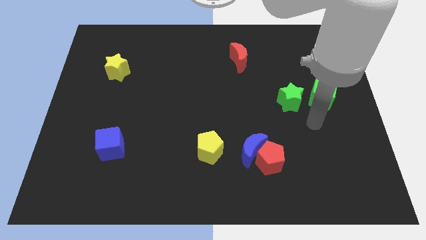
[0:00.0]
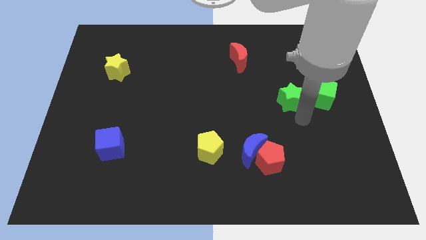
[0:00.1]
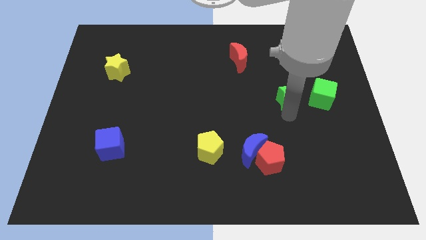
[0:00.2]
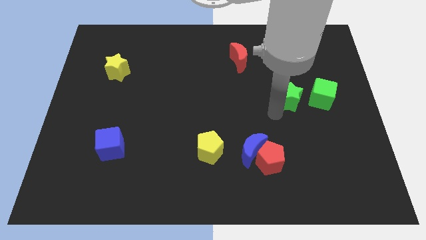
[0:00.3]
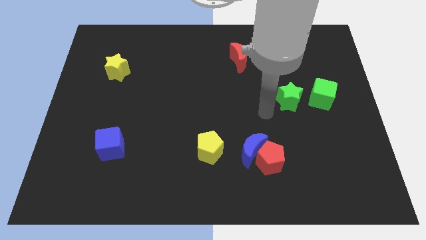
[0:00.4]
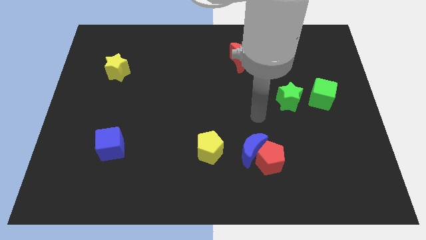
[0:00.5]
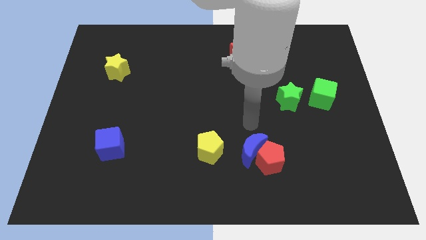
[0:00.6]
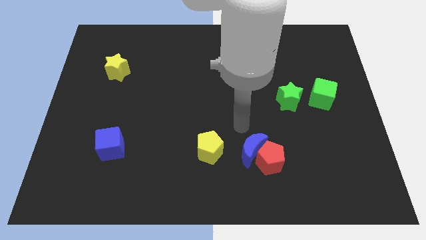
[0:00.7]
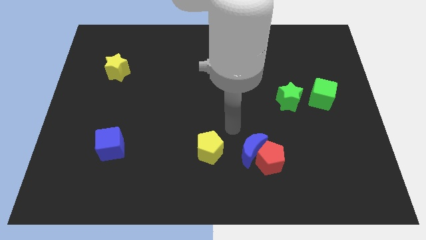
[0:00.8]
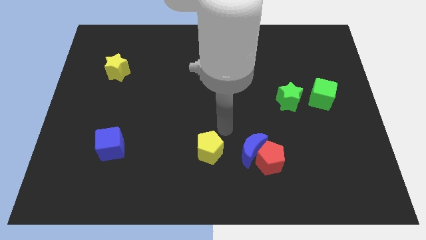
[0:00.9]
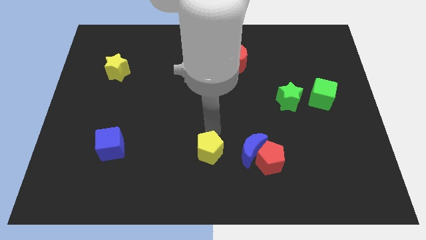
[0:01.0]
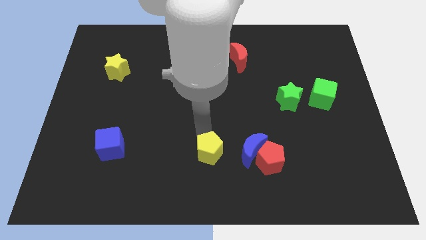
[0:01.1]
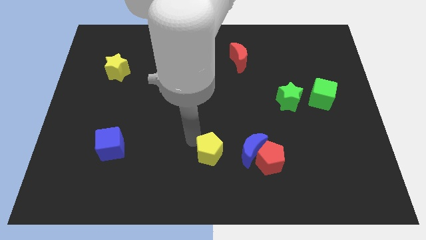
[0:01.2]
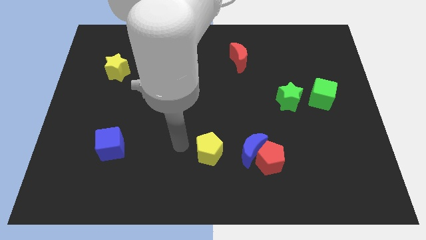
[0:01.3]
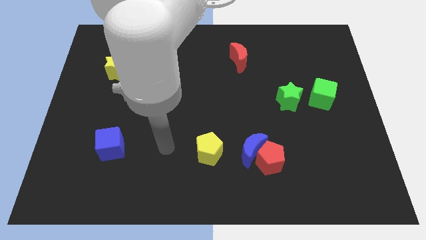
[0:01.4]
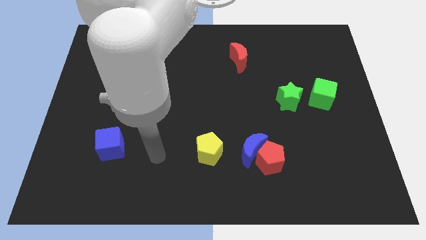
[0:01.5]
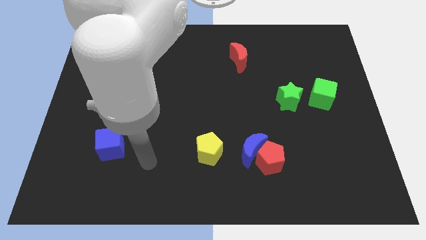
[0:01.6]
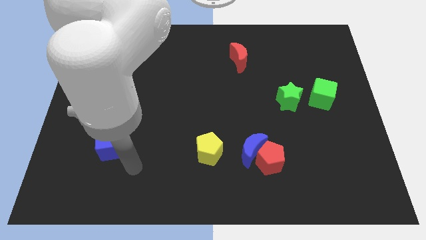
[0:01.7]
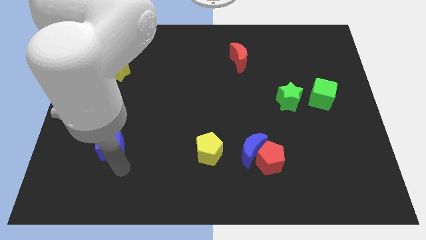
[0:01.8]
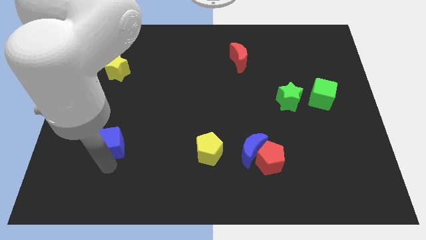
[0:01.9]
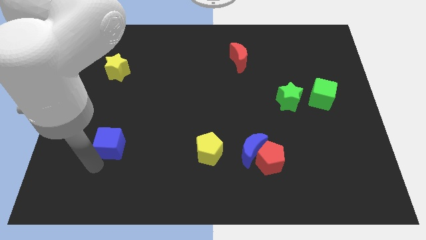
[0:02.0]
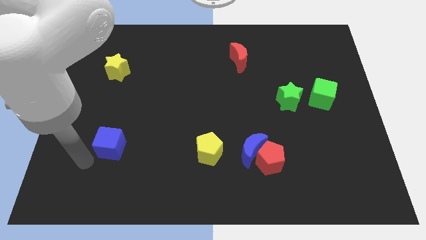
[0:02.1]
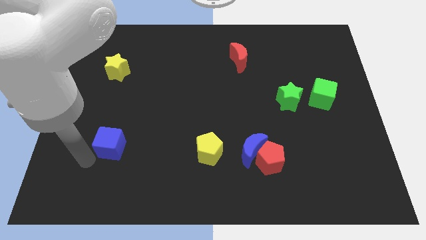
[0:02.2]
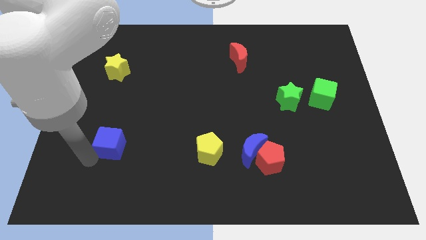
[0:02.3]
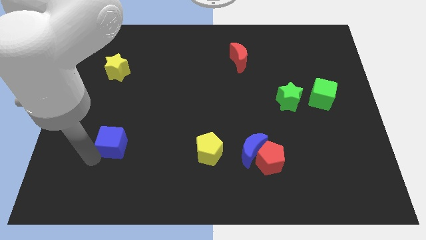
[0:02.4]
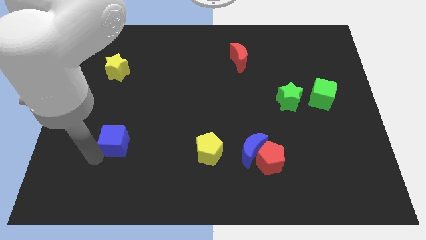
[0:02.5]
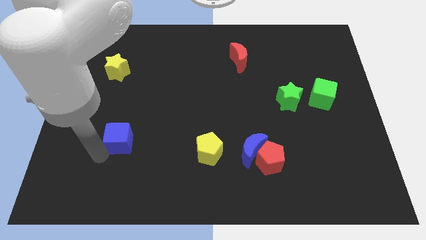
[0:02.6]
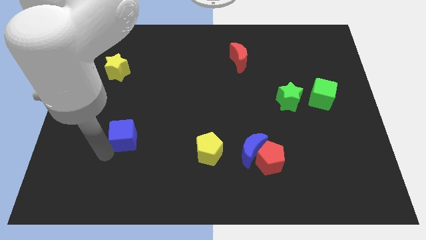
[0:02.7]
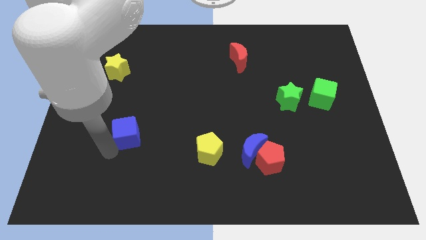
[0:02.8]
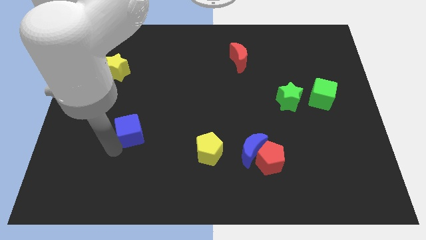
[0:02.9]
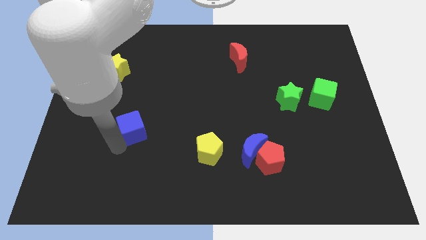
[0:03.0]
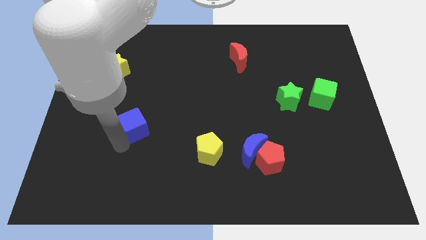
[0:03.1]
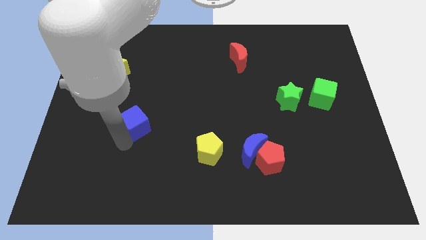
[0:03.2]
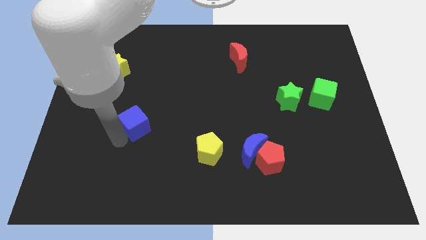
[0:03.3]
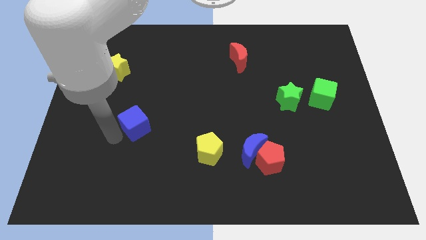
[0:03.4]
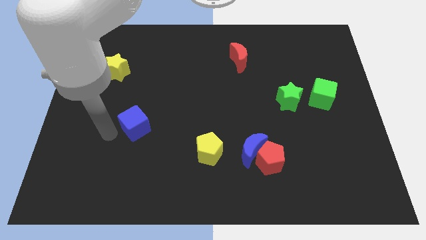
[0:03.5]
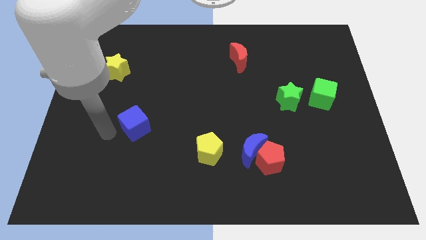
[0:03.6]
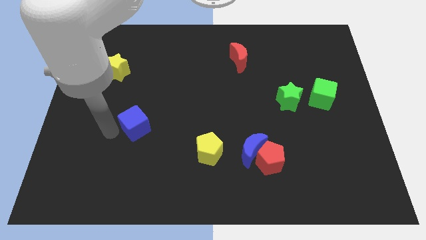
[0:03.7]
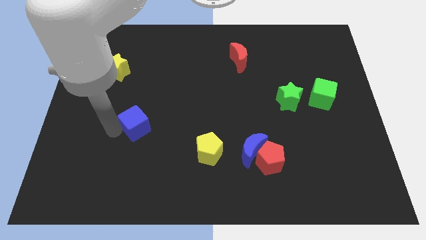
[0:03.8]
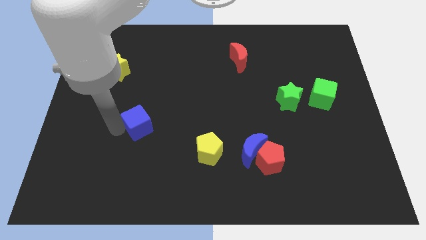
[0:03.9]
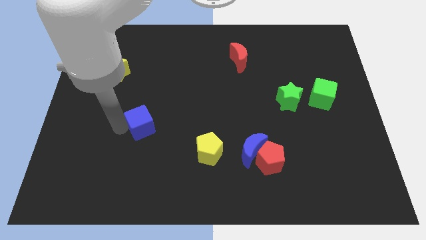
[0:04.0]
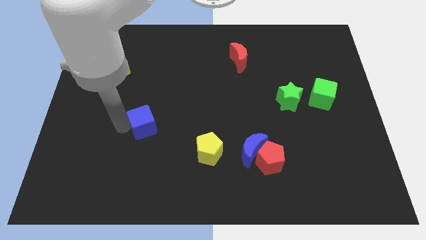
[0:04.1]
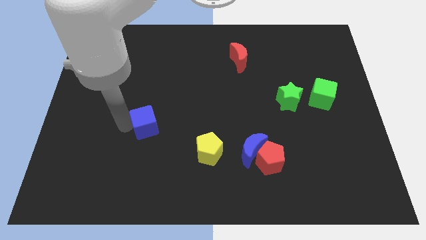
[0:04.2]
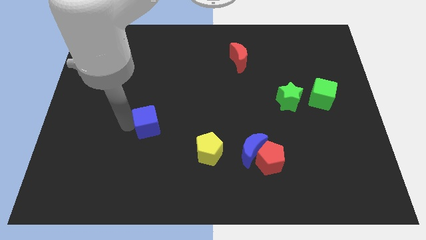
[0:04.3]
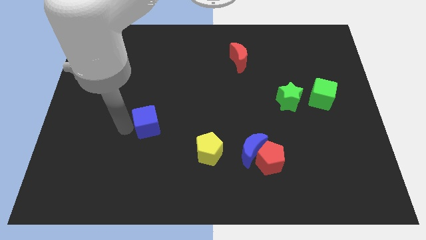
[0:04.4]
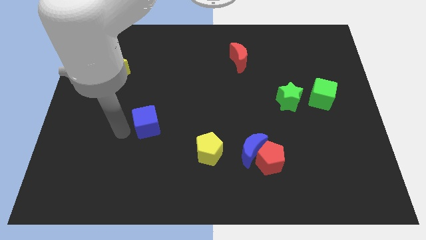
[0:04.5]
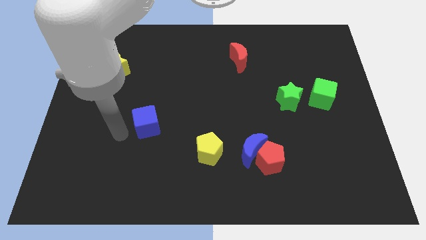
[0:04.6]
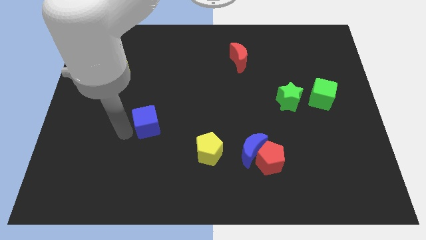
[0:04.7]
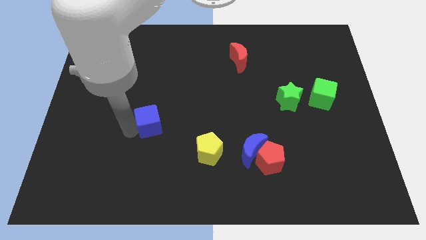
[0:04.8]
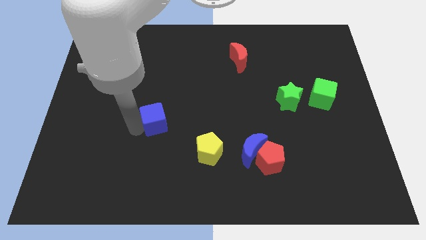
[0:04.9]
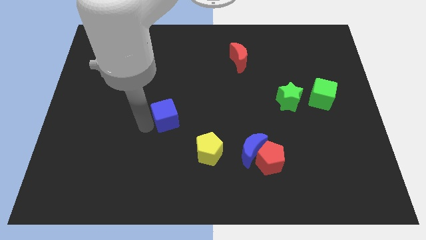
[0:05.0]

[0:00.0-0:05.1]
push the blue cube to the center of the board

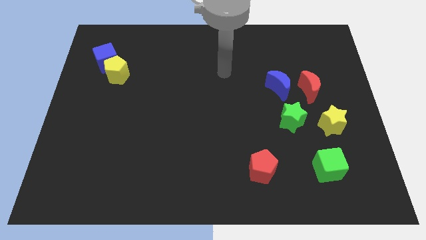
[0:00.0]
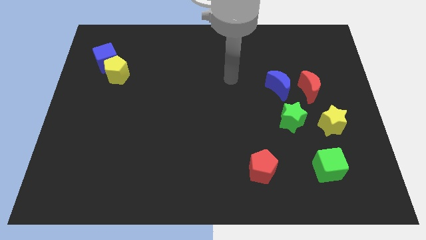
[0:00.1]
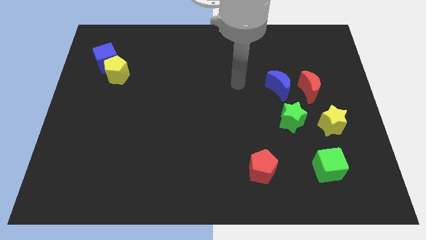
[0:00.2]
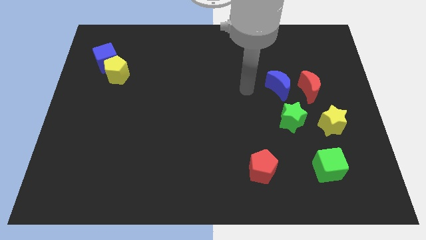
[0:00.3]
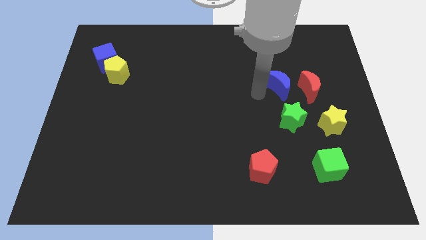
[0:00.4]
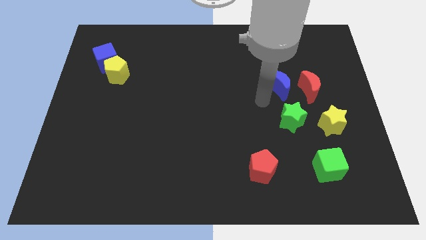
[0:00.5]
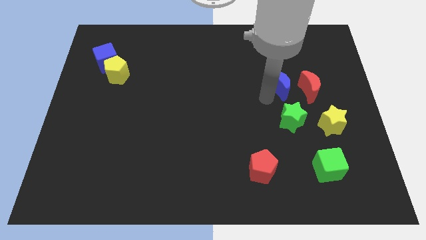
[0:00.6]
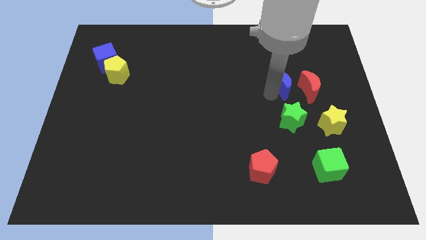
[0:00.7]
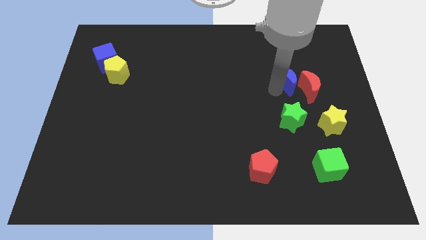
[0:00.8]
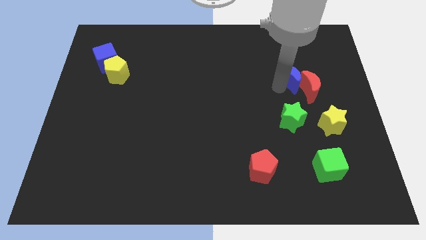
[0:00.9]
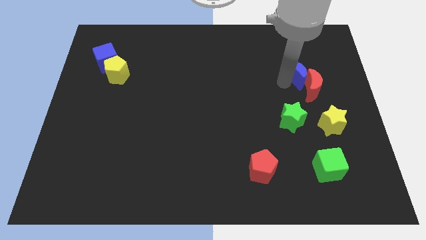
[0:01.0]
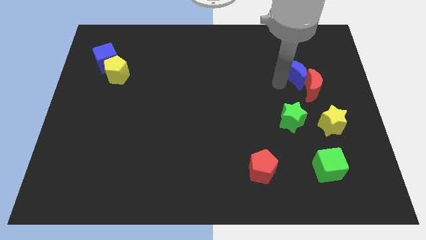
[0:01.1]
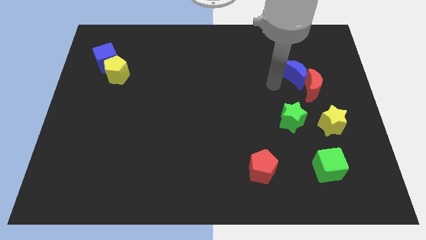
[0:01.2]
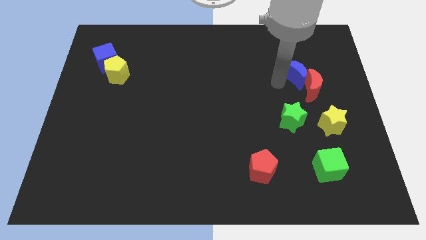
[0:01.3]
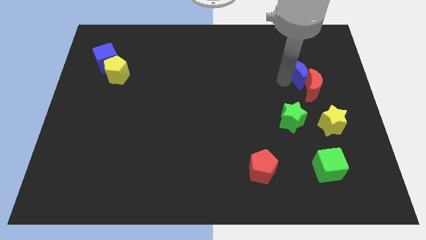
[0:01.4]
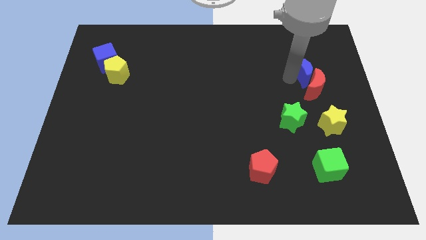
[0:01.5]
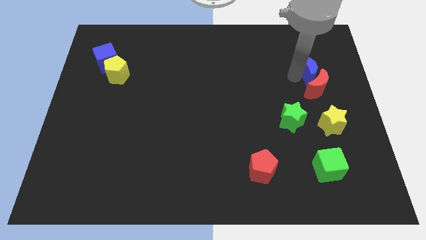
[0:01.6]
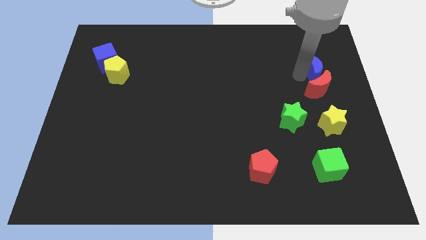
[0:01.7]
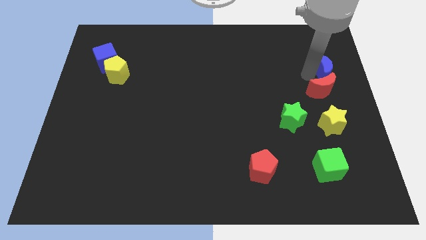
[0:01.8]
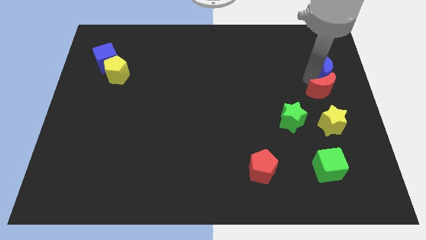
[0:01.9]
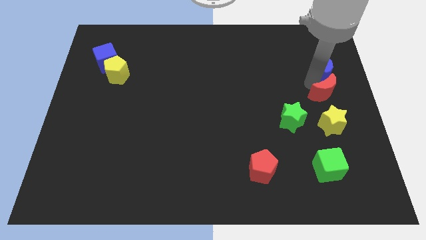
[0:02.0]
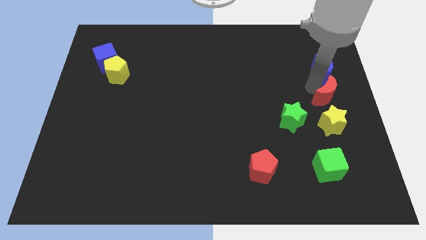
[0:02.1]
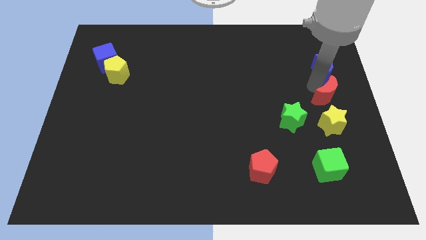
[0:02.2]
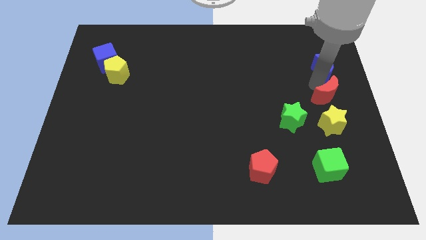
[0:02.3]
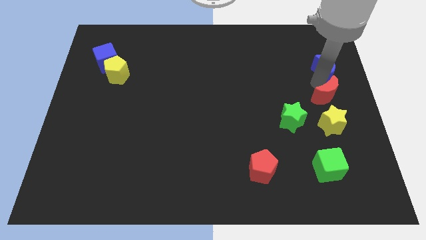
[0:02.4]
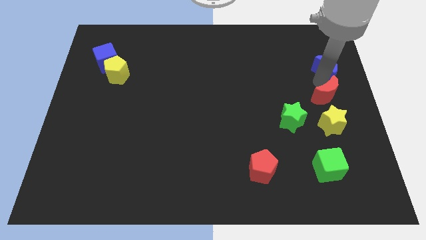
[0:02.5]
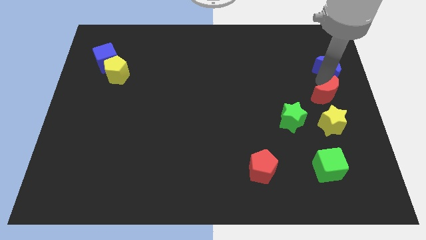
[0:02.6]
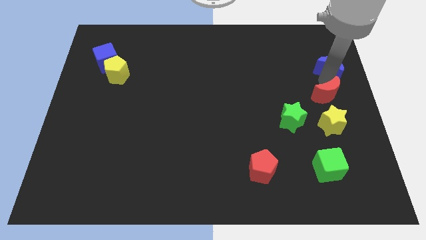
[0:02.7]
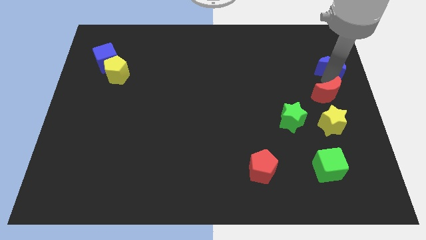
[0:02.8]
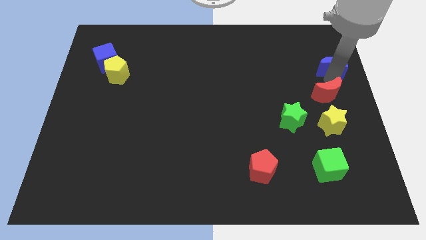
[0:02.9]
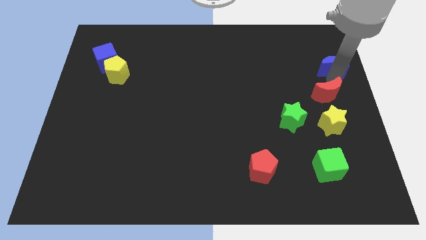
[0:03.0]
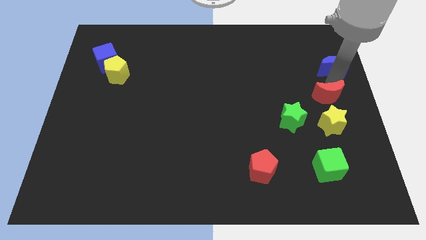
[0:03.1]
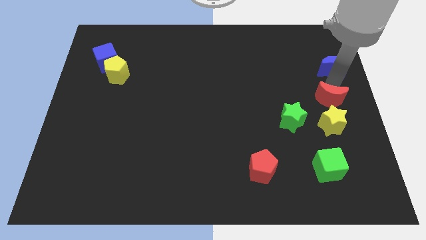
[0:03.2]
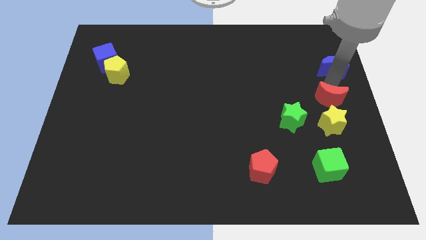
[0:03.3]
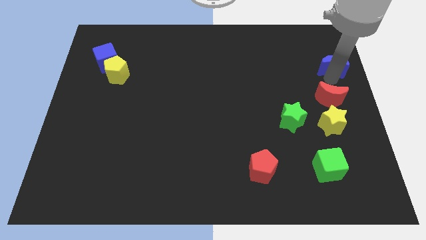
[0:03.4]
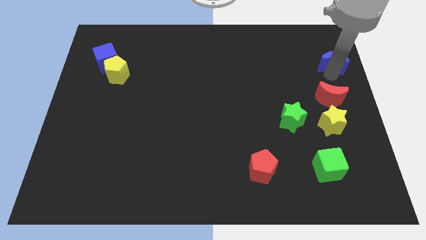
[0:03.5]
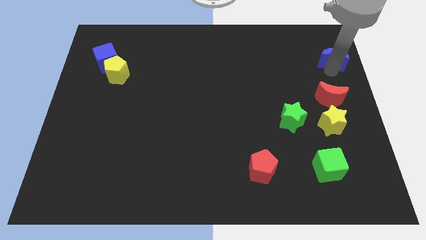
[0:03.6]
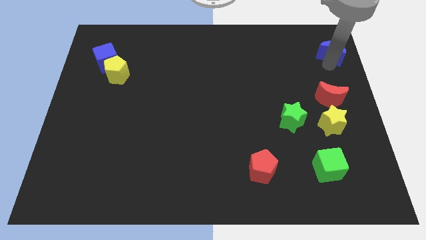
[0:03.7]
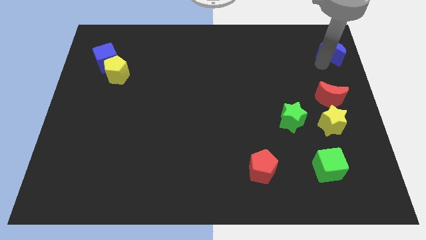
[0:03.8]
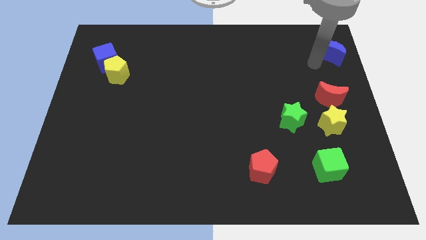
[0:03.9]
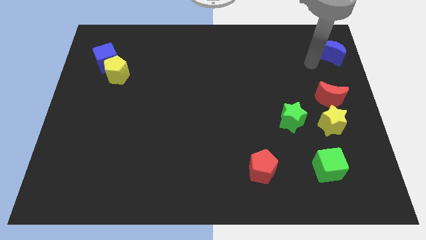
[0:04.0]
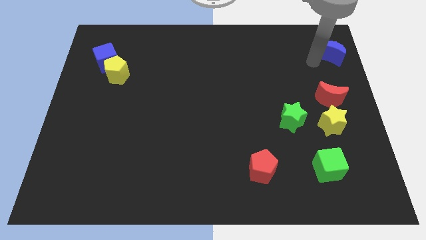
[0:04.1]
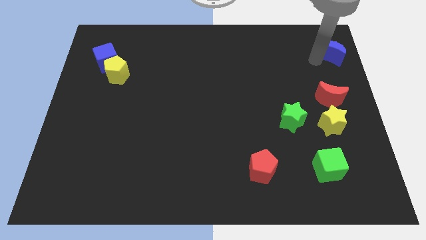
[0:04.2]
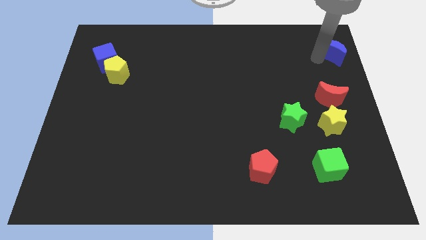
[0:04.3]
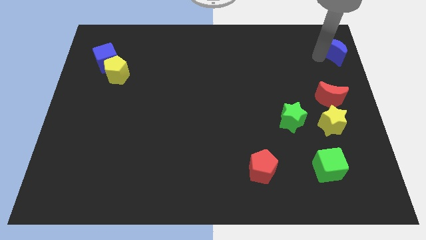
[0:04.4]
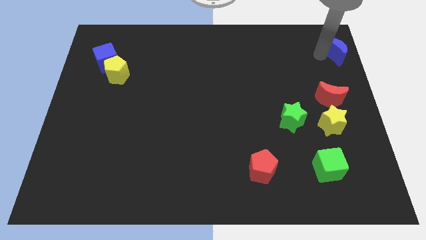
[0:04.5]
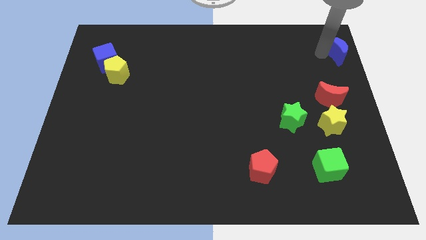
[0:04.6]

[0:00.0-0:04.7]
slide the blue moon to the top right
